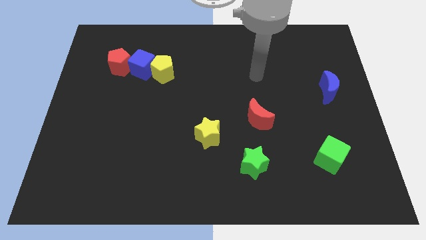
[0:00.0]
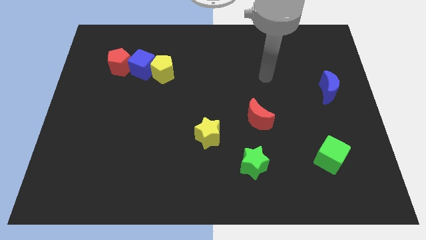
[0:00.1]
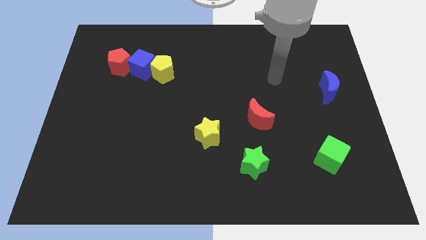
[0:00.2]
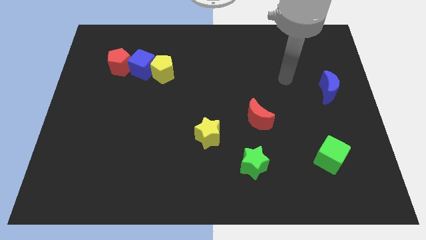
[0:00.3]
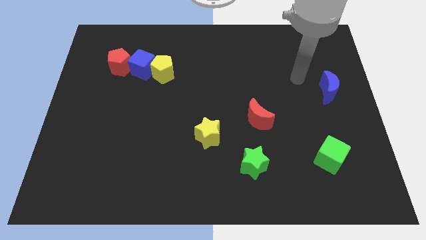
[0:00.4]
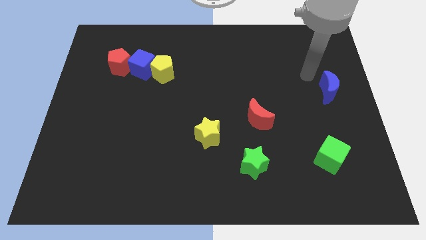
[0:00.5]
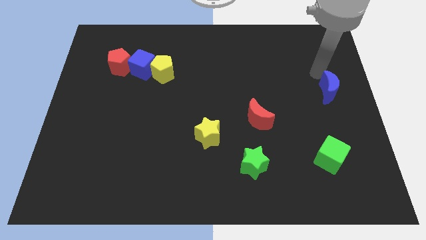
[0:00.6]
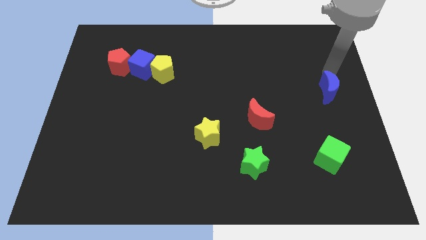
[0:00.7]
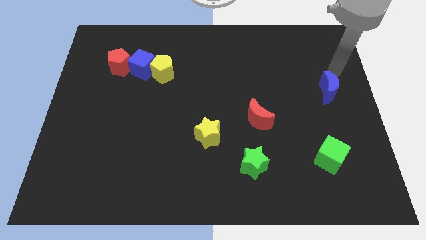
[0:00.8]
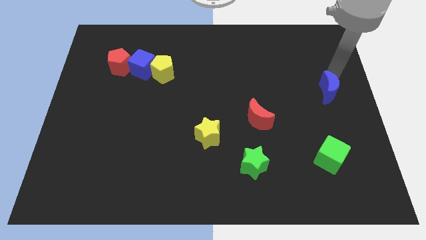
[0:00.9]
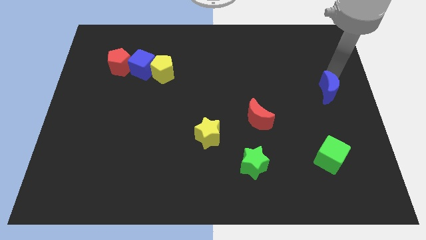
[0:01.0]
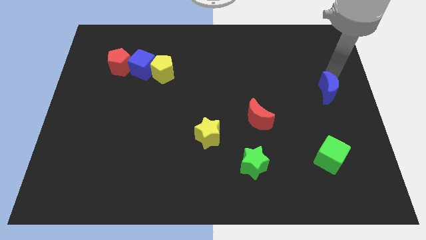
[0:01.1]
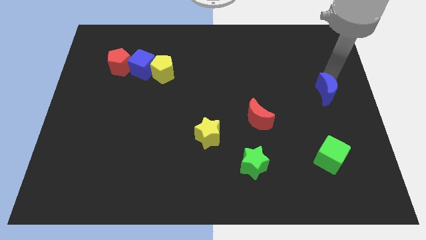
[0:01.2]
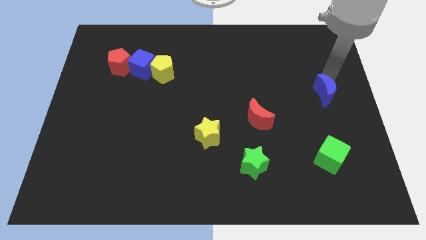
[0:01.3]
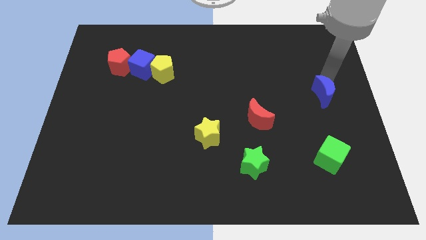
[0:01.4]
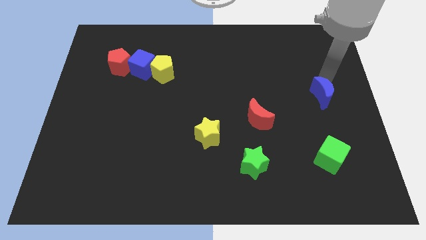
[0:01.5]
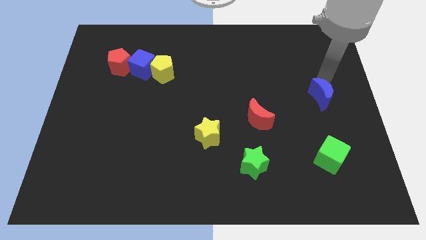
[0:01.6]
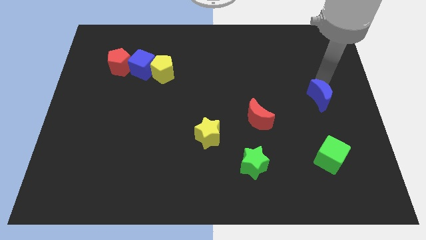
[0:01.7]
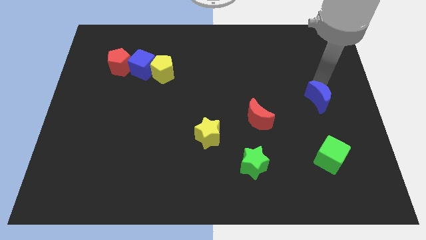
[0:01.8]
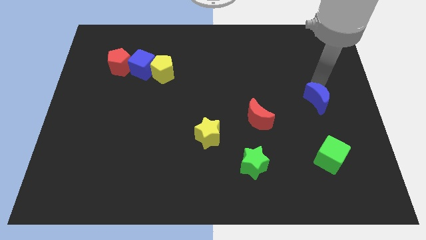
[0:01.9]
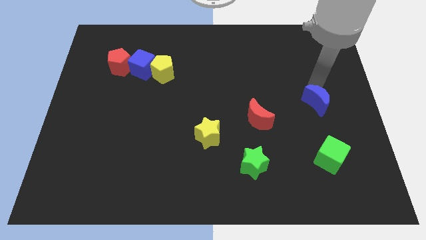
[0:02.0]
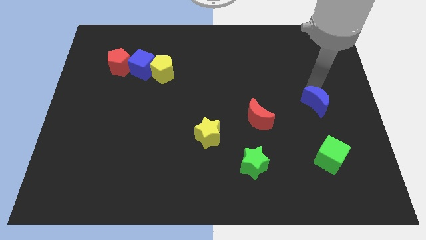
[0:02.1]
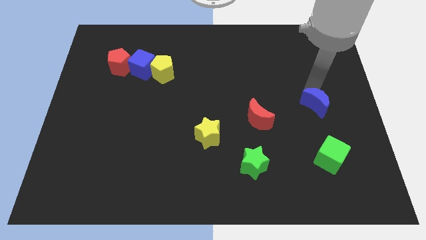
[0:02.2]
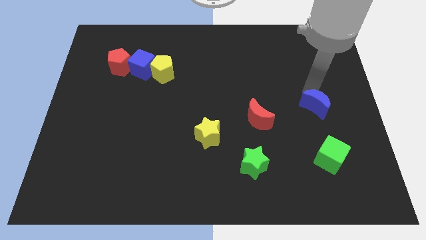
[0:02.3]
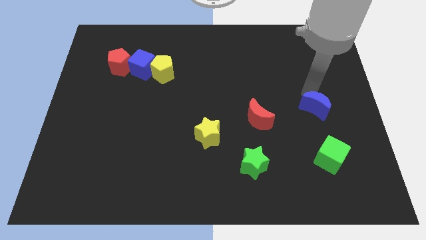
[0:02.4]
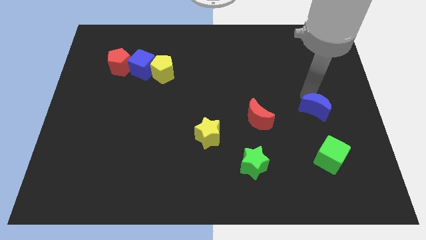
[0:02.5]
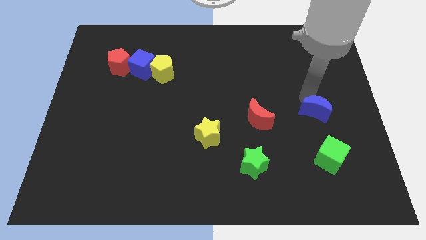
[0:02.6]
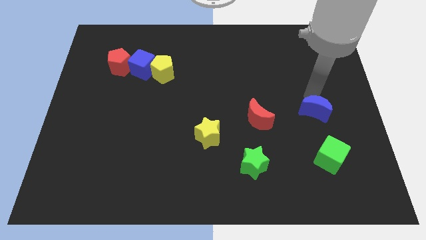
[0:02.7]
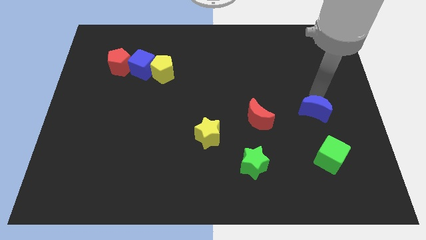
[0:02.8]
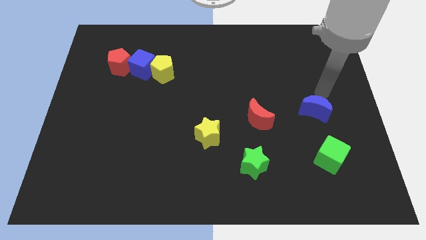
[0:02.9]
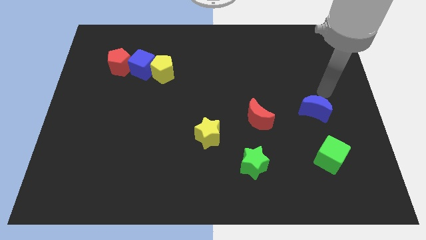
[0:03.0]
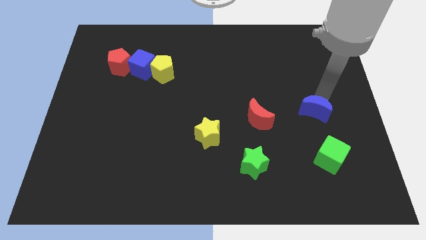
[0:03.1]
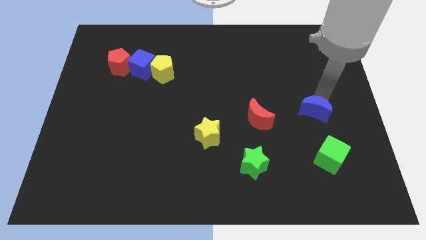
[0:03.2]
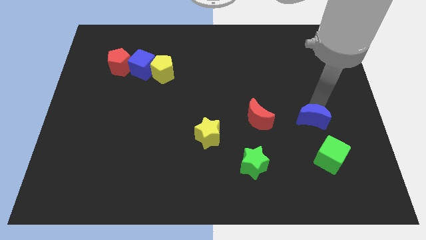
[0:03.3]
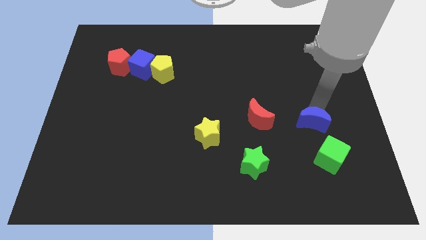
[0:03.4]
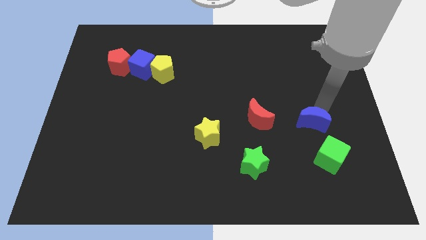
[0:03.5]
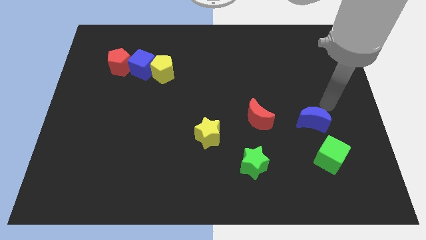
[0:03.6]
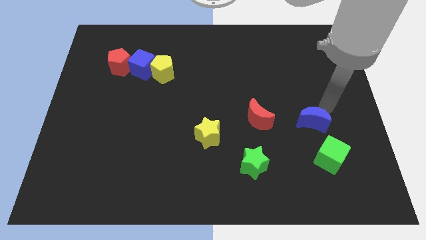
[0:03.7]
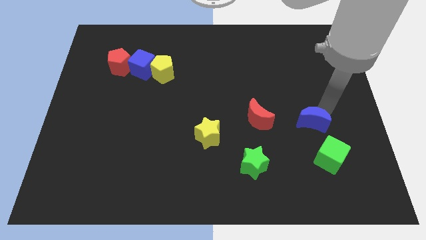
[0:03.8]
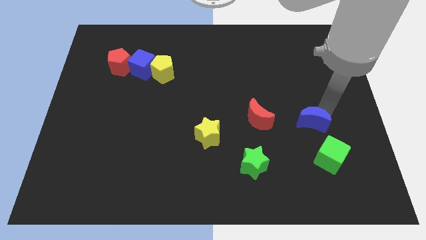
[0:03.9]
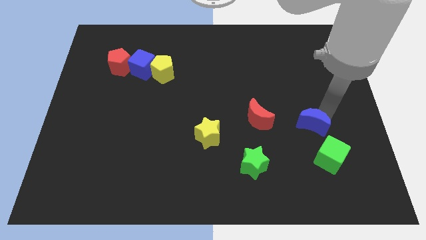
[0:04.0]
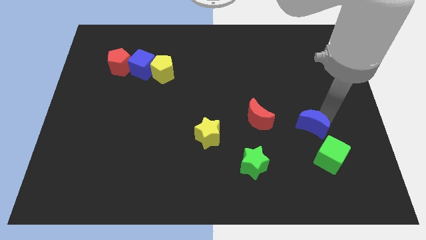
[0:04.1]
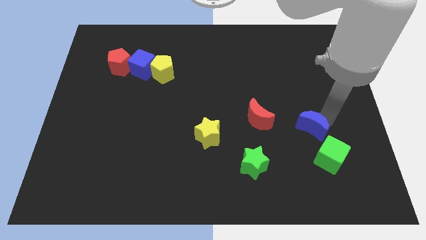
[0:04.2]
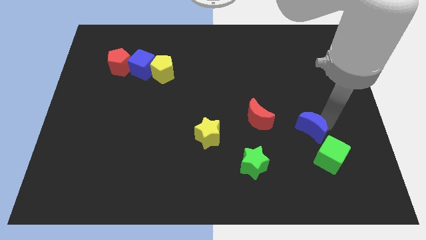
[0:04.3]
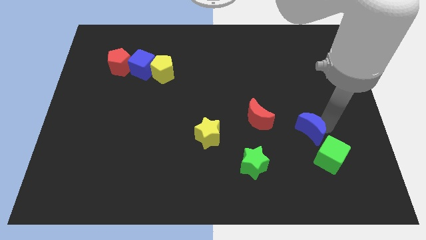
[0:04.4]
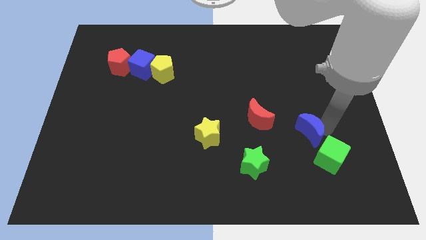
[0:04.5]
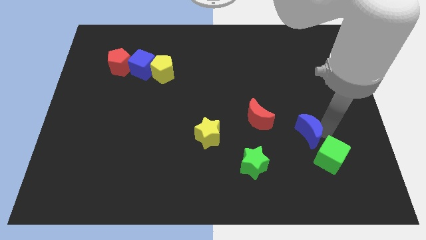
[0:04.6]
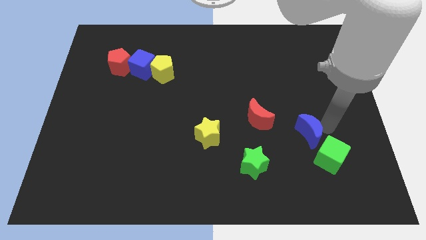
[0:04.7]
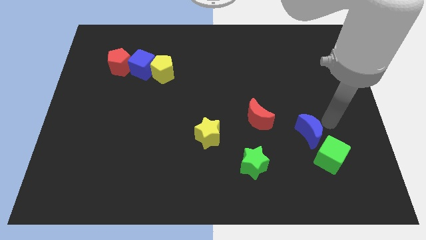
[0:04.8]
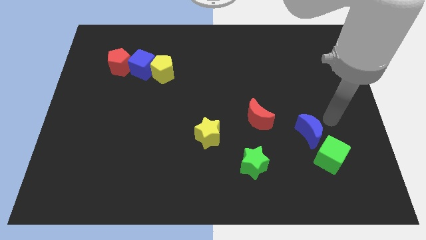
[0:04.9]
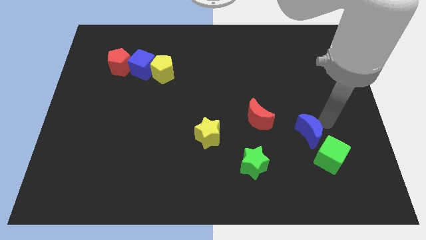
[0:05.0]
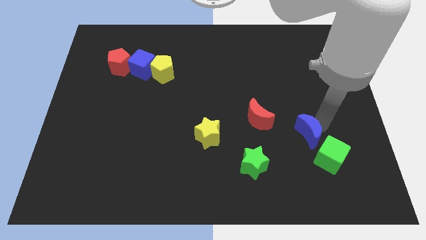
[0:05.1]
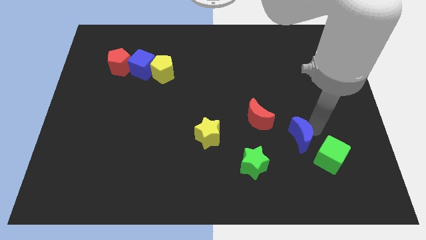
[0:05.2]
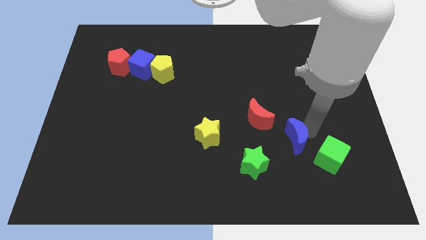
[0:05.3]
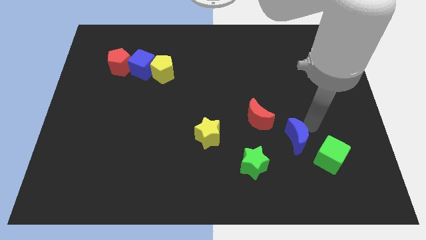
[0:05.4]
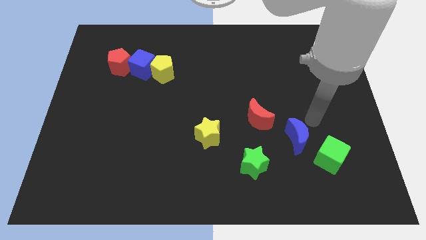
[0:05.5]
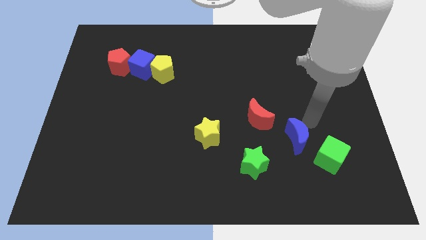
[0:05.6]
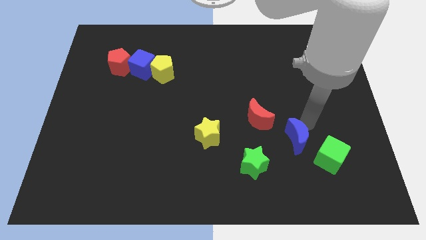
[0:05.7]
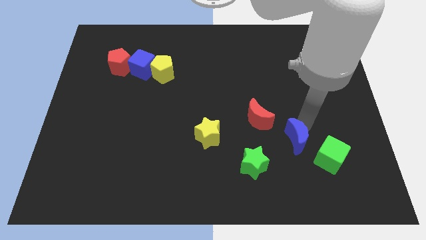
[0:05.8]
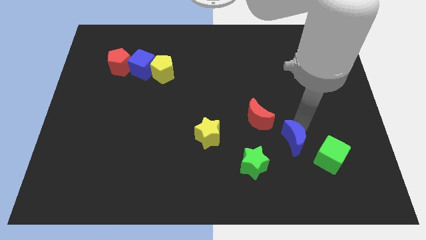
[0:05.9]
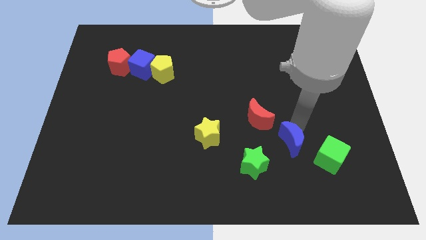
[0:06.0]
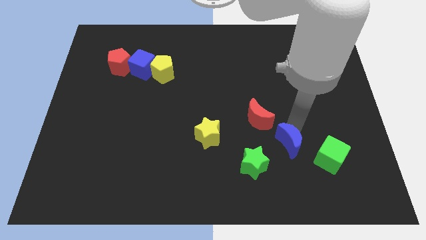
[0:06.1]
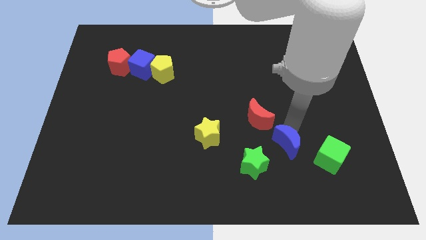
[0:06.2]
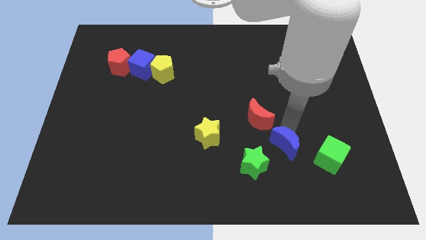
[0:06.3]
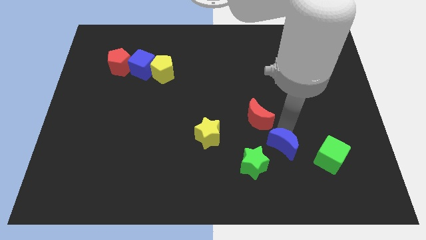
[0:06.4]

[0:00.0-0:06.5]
push the blue moon downwards and to the left diagonally

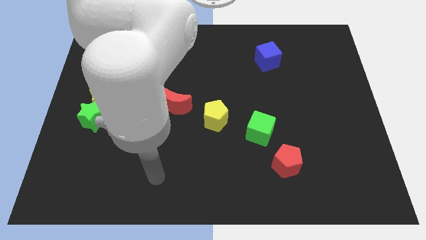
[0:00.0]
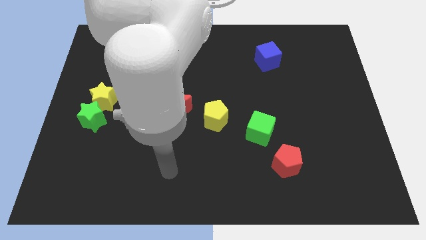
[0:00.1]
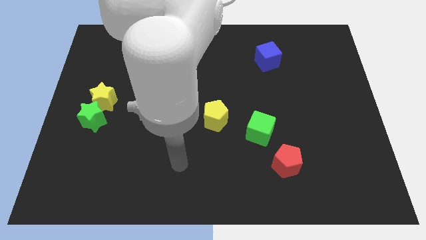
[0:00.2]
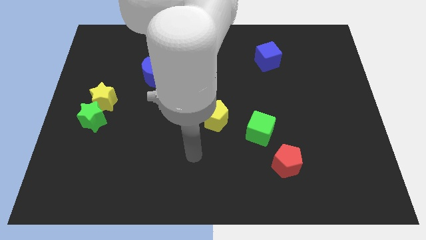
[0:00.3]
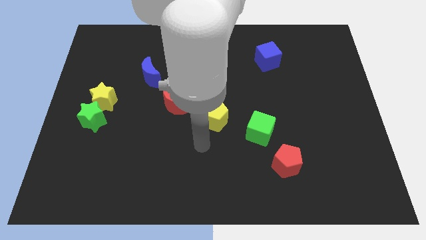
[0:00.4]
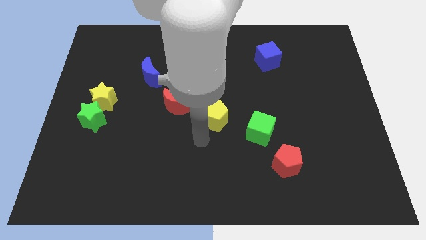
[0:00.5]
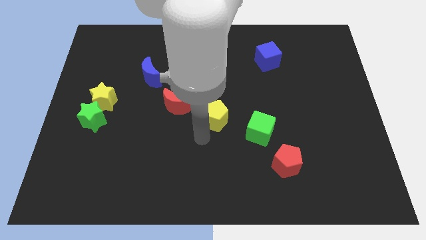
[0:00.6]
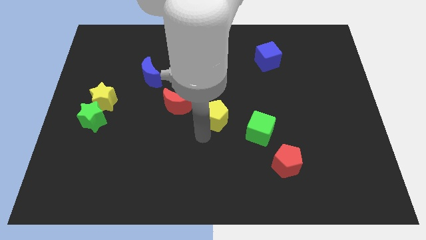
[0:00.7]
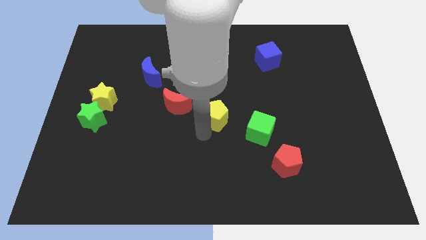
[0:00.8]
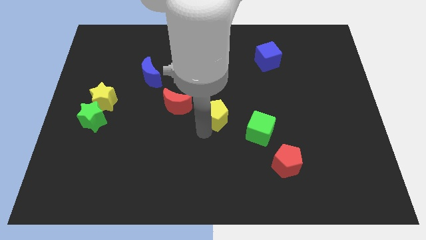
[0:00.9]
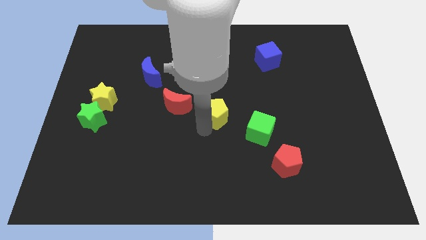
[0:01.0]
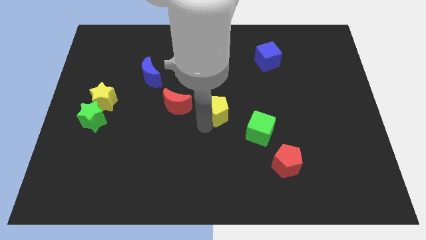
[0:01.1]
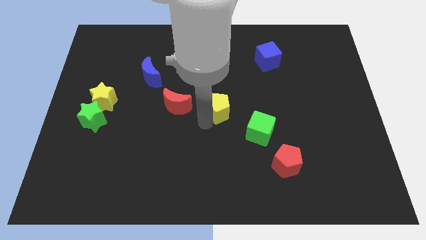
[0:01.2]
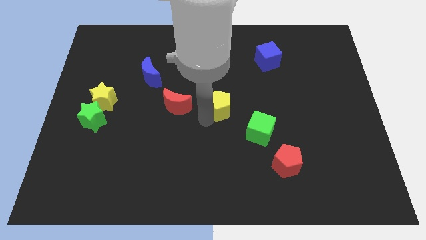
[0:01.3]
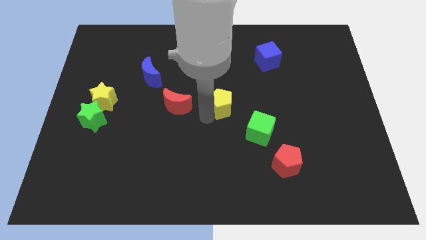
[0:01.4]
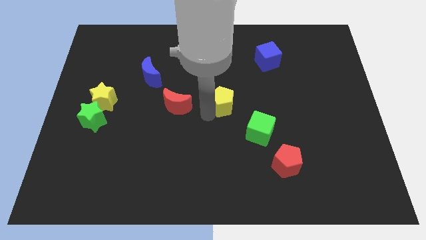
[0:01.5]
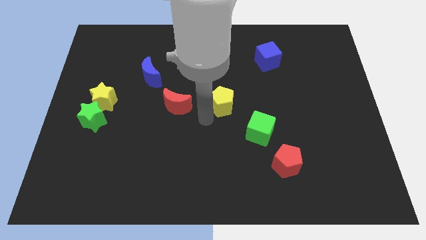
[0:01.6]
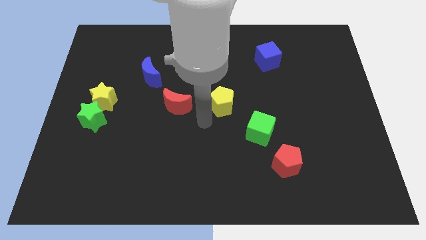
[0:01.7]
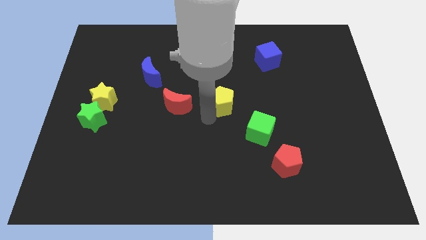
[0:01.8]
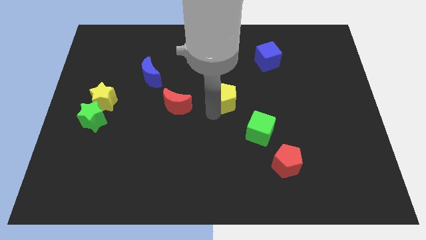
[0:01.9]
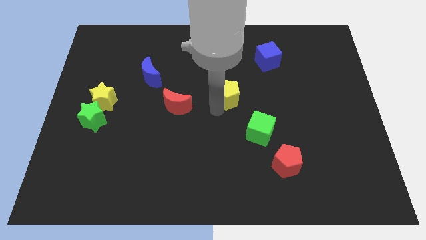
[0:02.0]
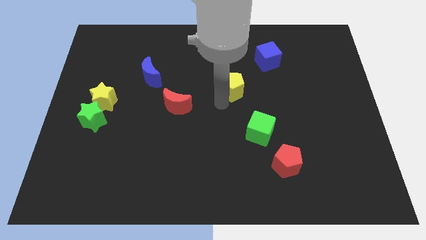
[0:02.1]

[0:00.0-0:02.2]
move the yellow pentagon diagonally up and to the right a bit
